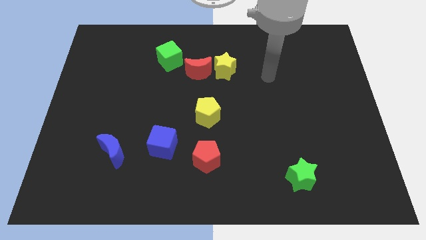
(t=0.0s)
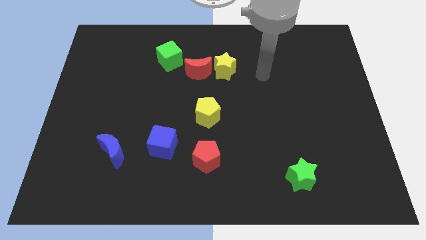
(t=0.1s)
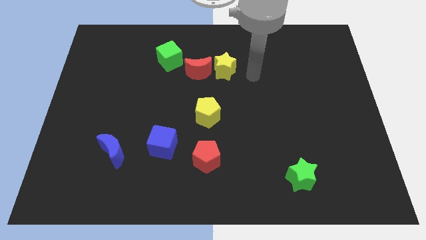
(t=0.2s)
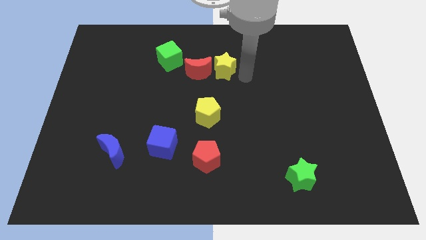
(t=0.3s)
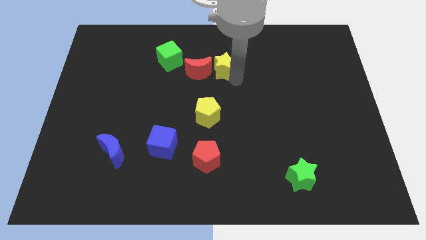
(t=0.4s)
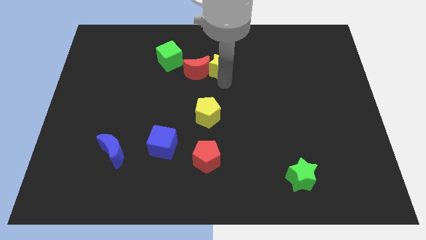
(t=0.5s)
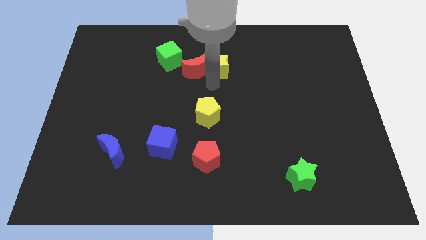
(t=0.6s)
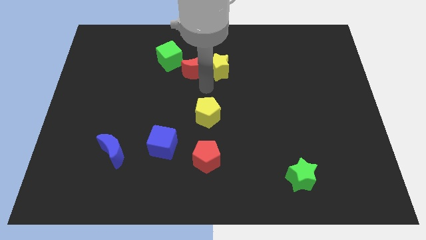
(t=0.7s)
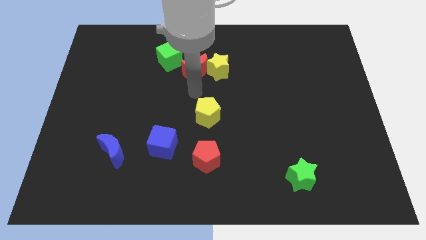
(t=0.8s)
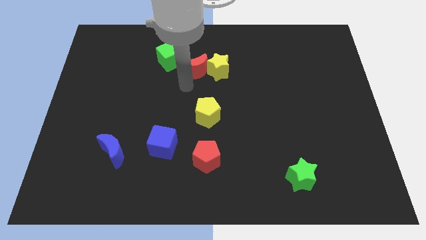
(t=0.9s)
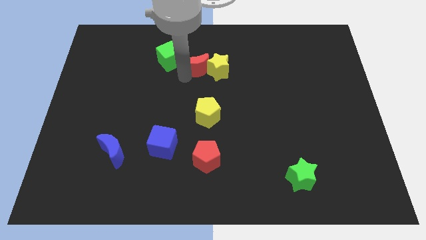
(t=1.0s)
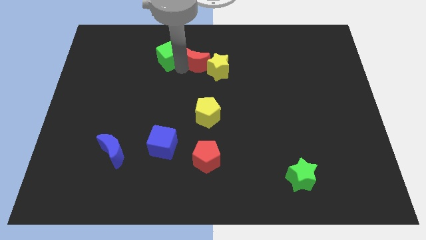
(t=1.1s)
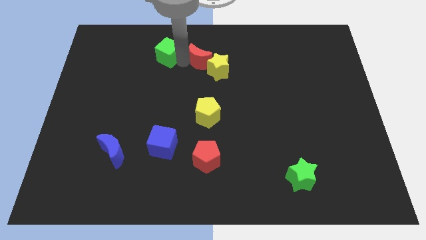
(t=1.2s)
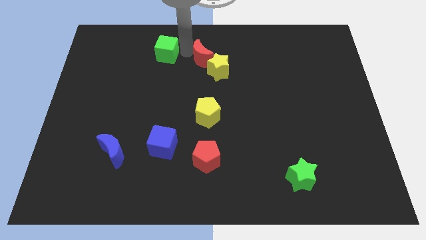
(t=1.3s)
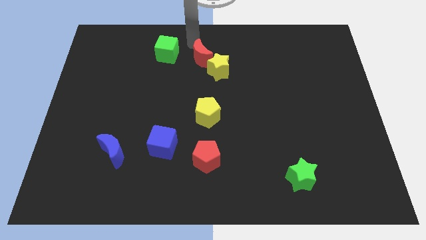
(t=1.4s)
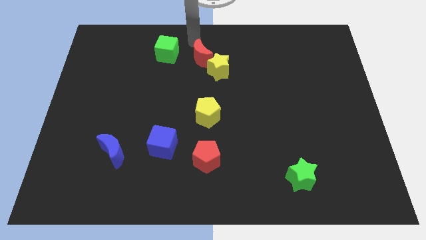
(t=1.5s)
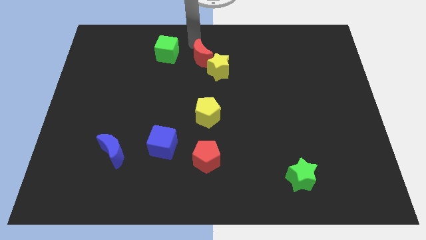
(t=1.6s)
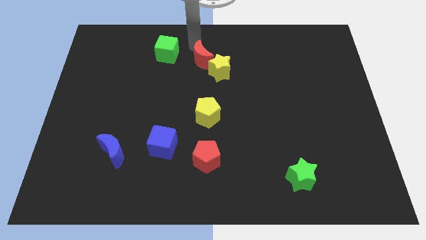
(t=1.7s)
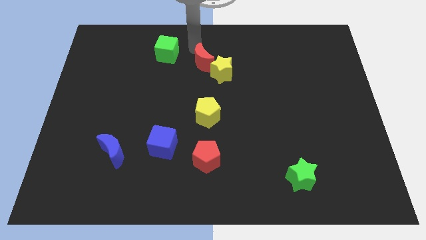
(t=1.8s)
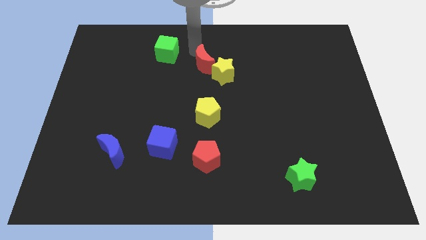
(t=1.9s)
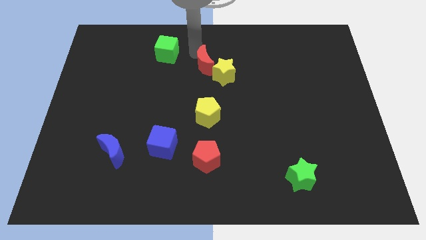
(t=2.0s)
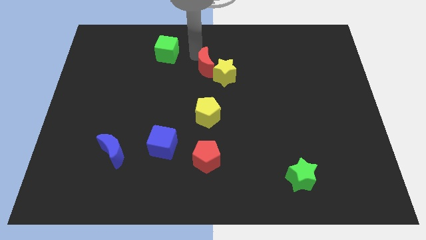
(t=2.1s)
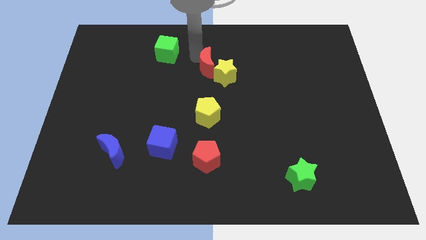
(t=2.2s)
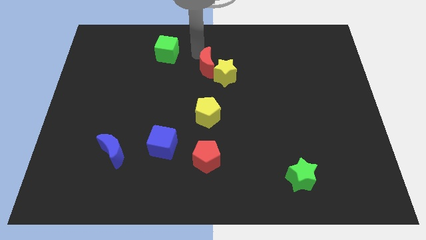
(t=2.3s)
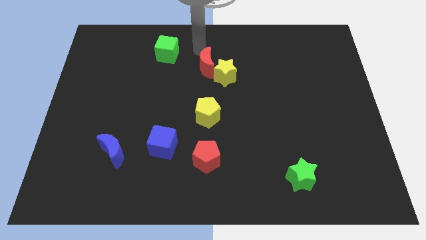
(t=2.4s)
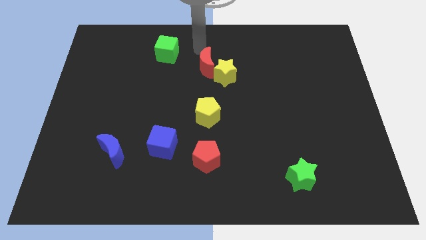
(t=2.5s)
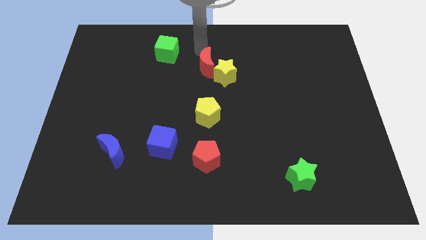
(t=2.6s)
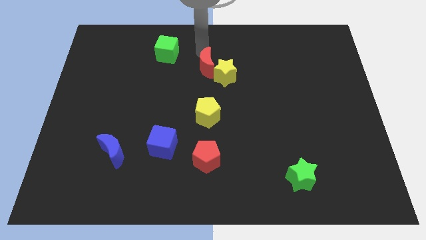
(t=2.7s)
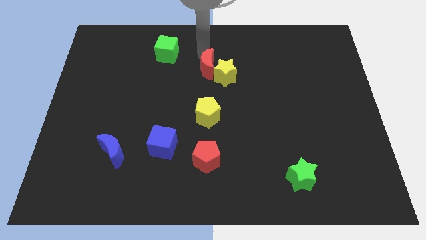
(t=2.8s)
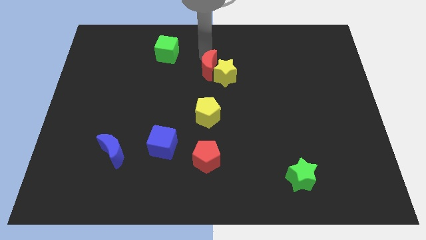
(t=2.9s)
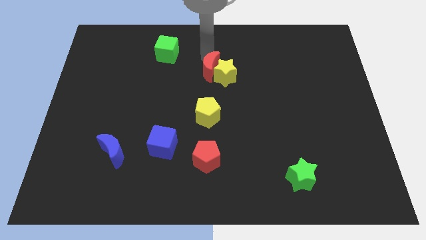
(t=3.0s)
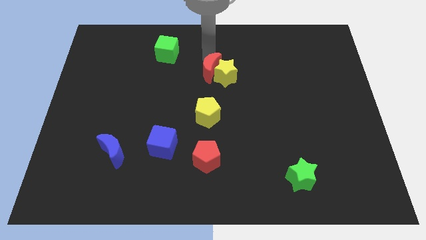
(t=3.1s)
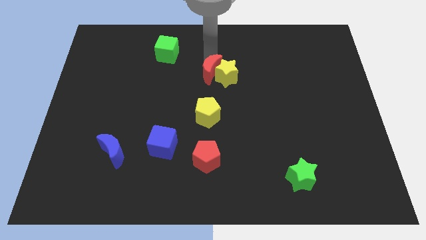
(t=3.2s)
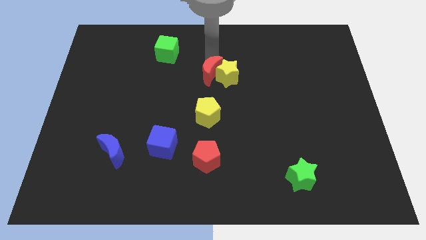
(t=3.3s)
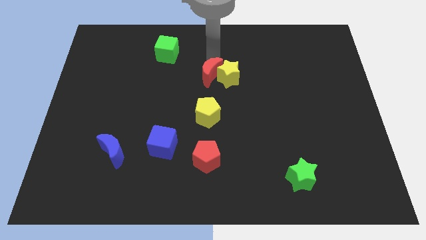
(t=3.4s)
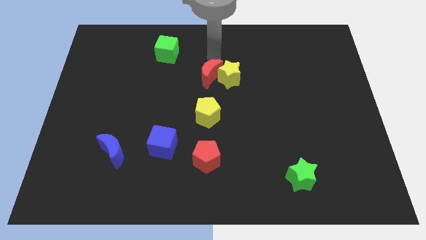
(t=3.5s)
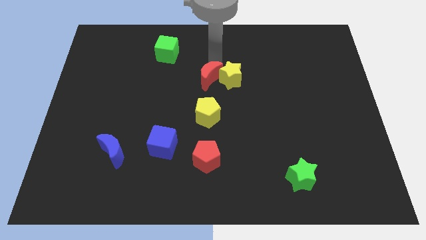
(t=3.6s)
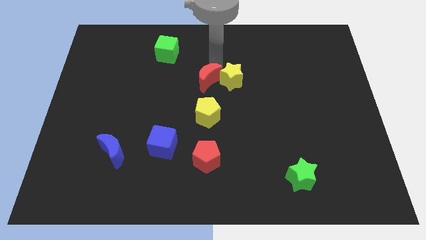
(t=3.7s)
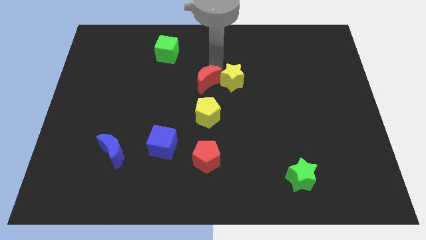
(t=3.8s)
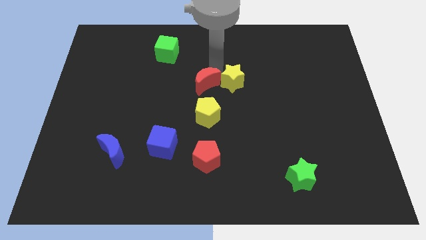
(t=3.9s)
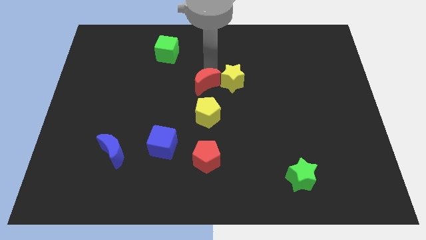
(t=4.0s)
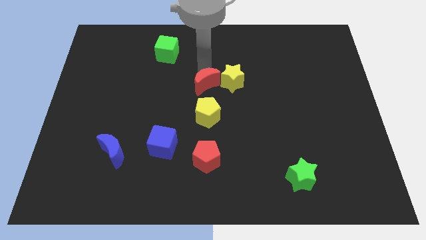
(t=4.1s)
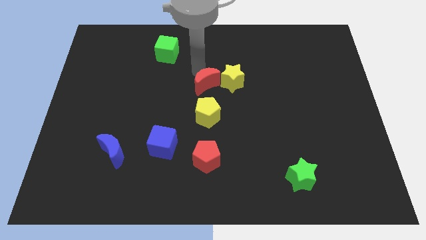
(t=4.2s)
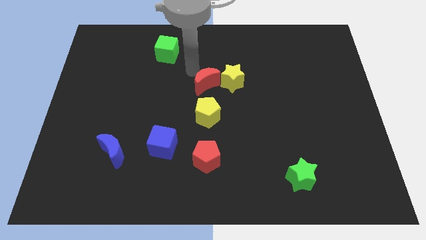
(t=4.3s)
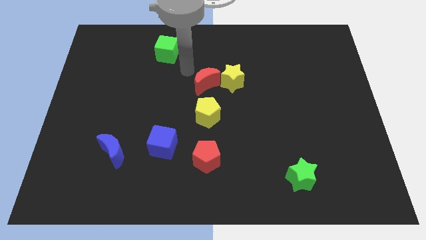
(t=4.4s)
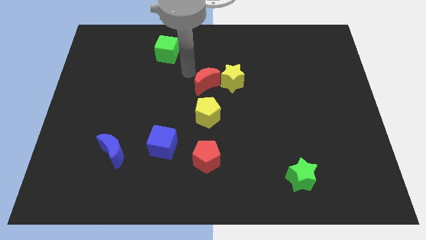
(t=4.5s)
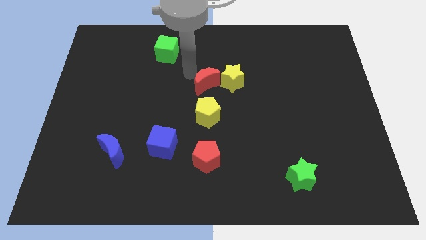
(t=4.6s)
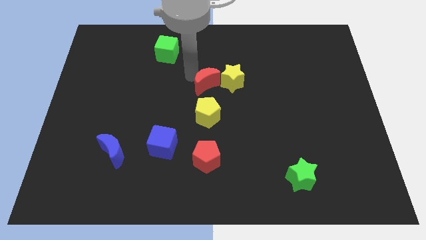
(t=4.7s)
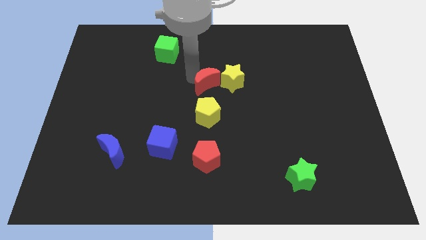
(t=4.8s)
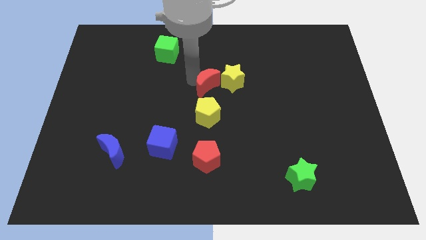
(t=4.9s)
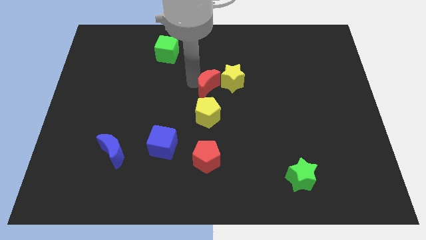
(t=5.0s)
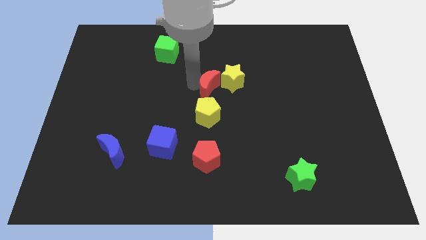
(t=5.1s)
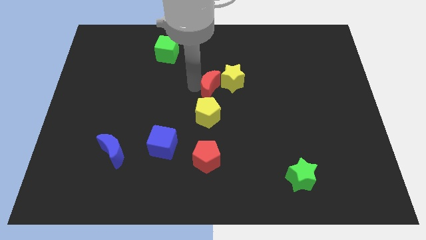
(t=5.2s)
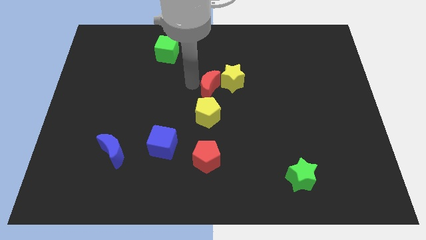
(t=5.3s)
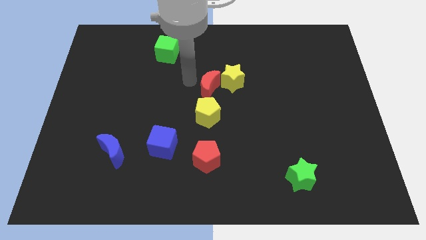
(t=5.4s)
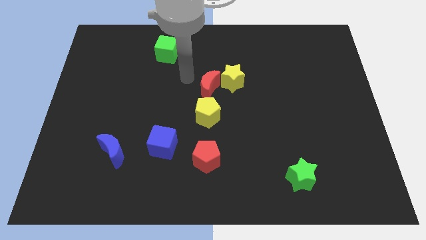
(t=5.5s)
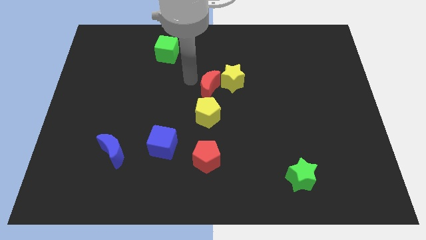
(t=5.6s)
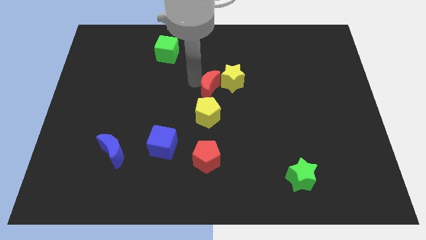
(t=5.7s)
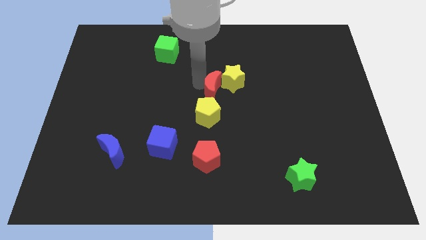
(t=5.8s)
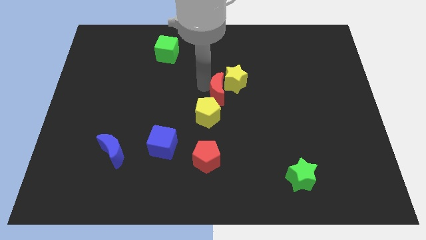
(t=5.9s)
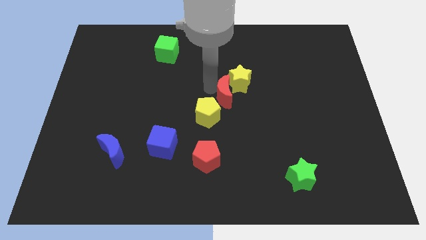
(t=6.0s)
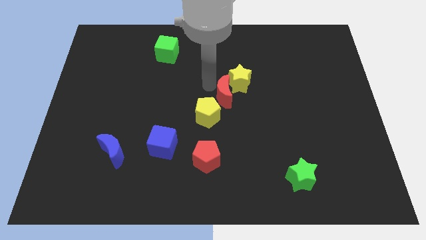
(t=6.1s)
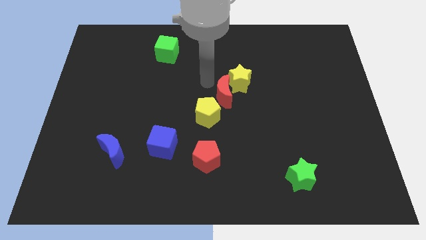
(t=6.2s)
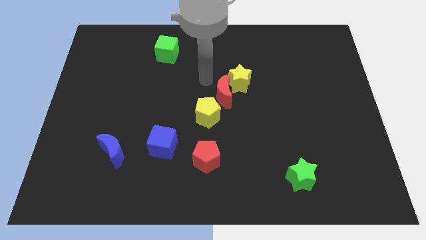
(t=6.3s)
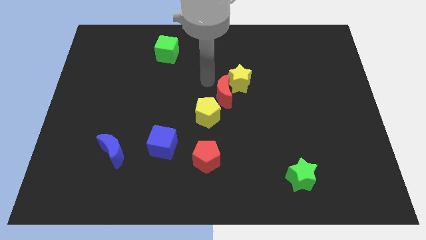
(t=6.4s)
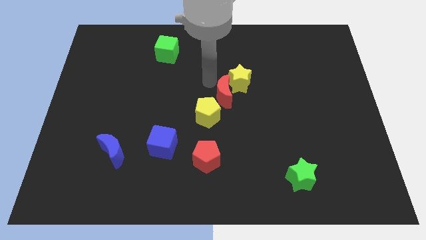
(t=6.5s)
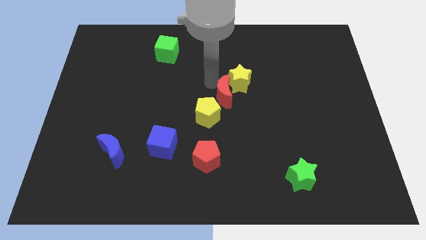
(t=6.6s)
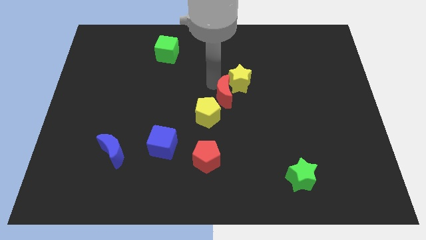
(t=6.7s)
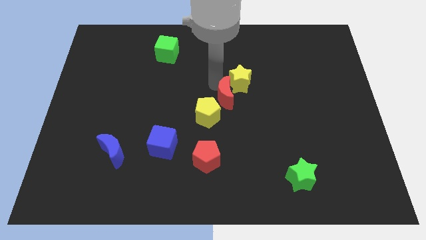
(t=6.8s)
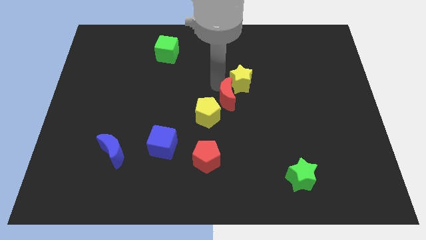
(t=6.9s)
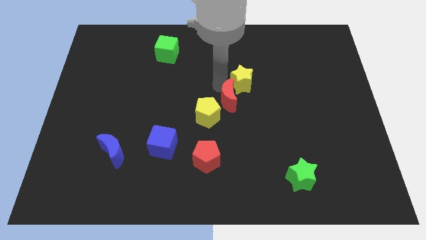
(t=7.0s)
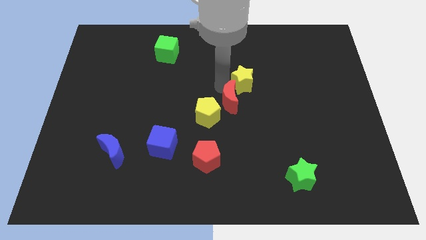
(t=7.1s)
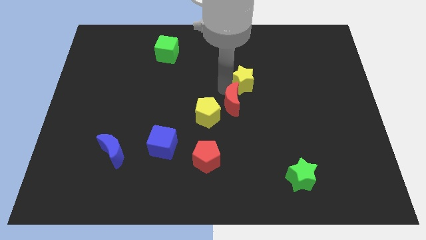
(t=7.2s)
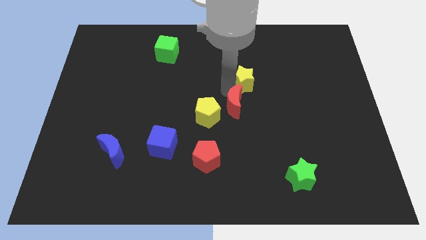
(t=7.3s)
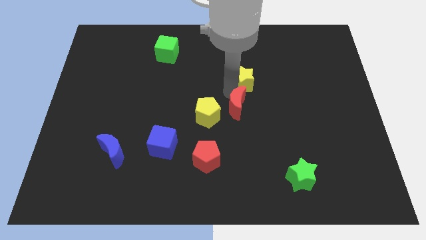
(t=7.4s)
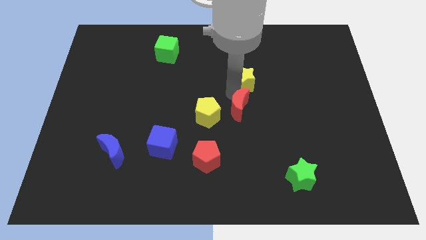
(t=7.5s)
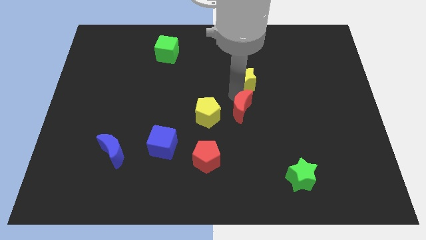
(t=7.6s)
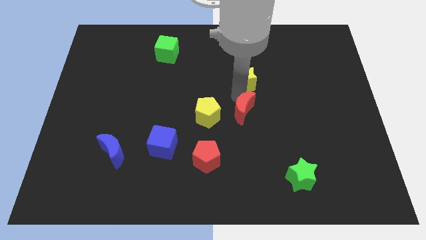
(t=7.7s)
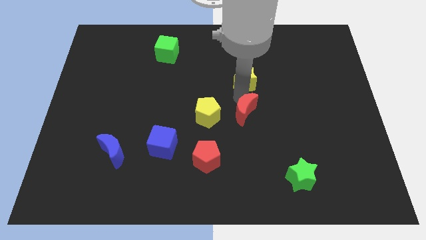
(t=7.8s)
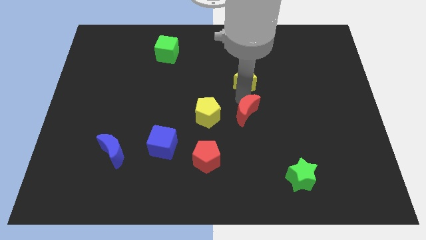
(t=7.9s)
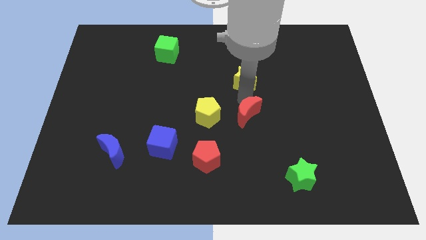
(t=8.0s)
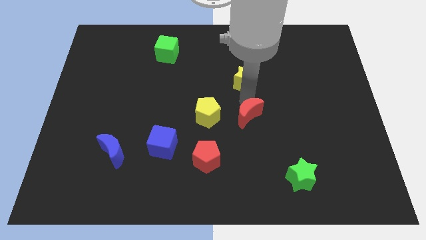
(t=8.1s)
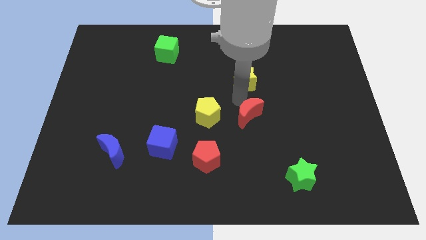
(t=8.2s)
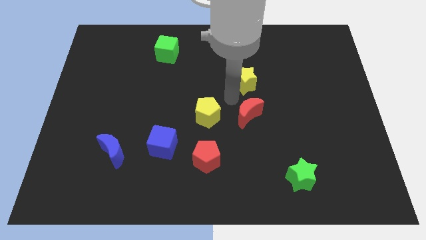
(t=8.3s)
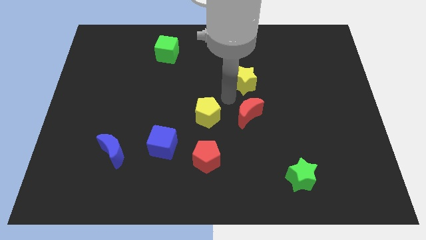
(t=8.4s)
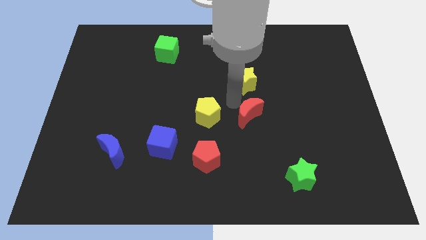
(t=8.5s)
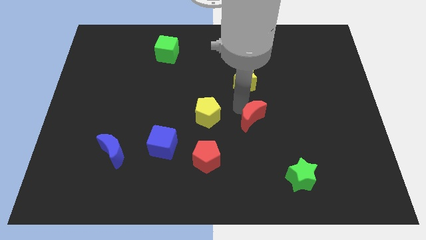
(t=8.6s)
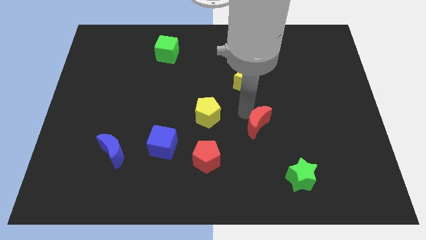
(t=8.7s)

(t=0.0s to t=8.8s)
slide the red moon diagonally down and to the right
